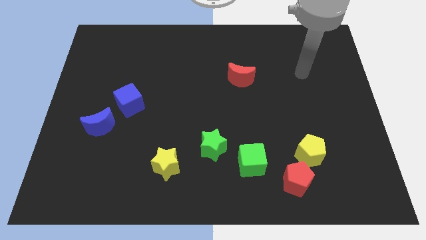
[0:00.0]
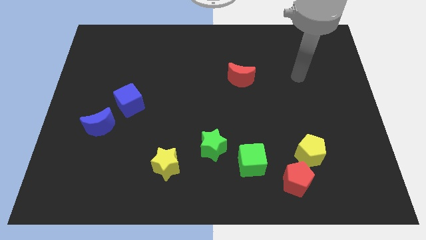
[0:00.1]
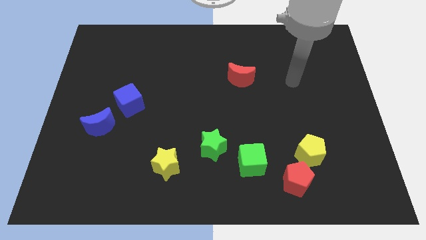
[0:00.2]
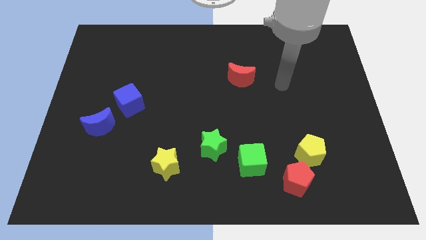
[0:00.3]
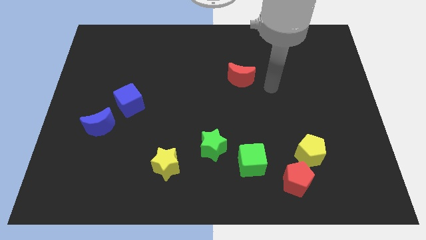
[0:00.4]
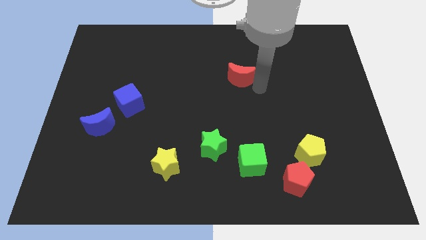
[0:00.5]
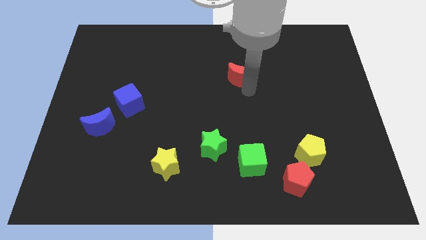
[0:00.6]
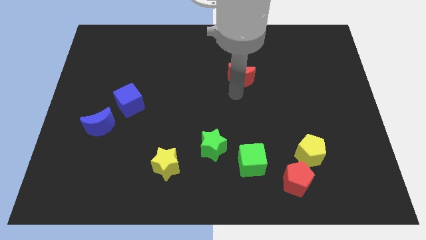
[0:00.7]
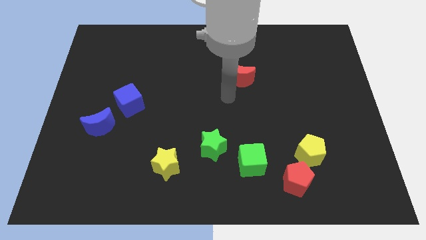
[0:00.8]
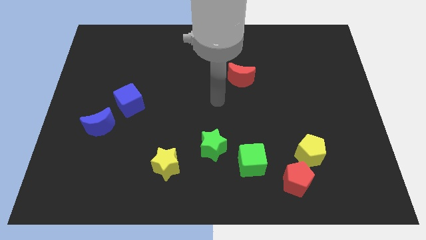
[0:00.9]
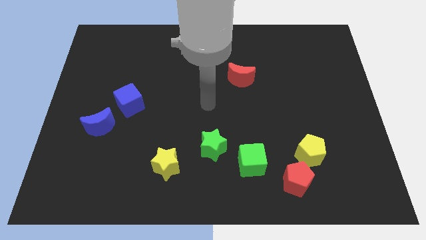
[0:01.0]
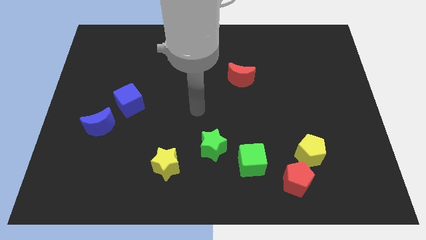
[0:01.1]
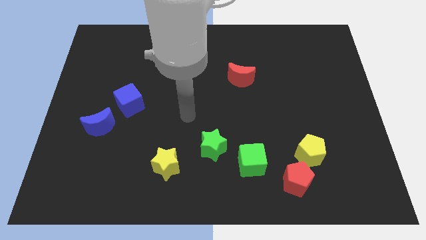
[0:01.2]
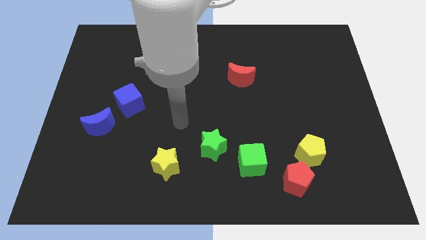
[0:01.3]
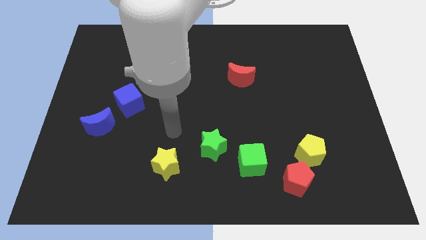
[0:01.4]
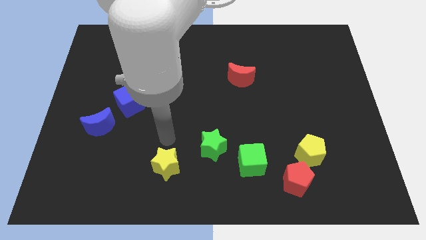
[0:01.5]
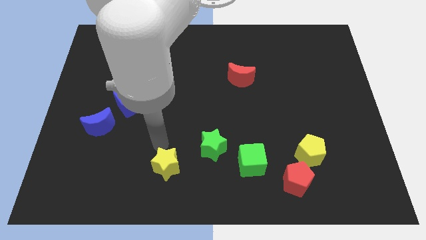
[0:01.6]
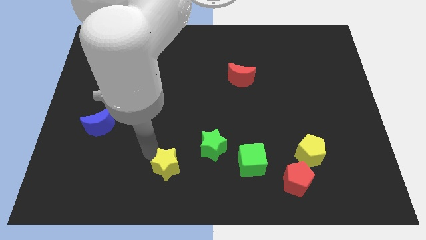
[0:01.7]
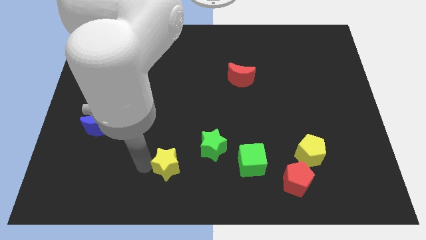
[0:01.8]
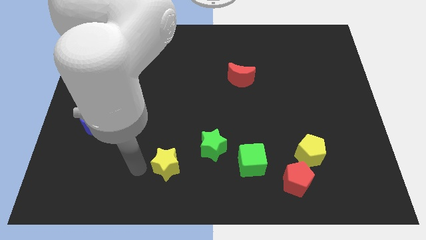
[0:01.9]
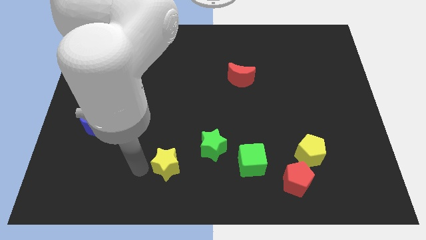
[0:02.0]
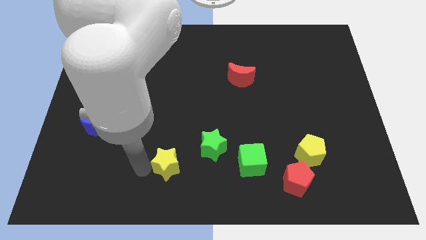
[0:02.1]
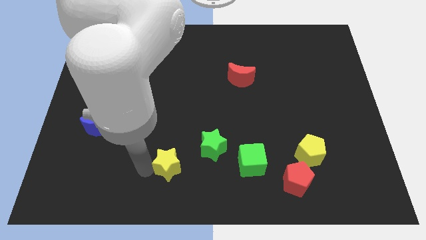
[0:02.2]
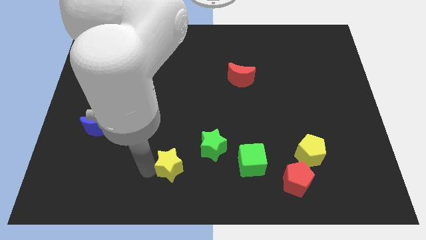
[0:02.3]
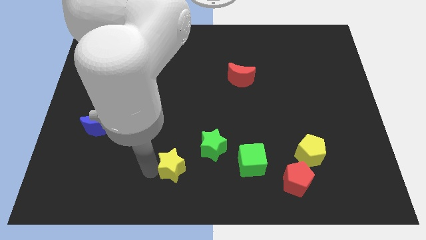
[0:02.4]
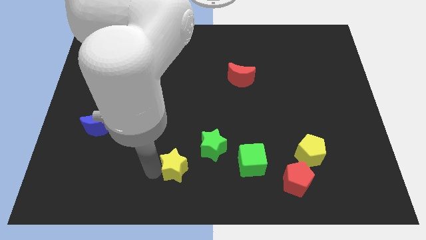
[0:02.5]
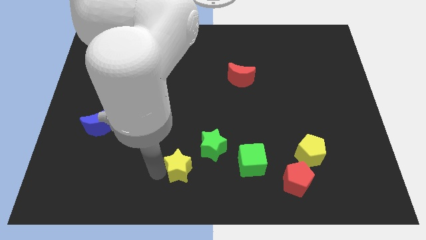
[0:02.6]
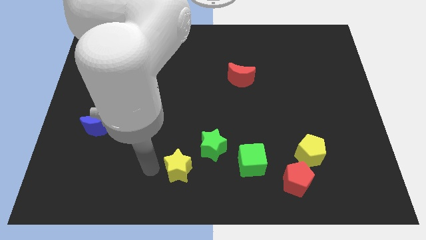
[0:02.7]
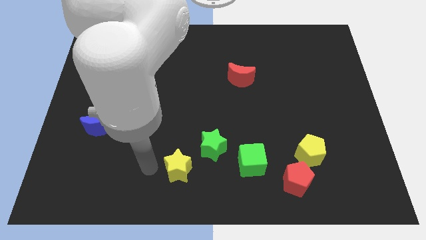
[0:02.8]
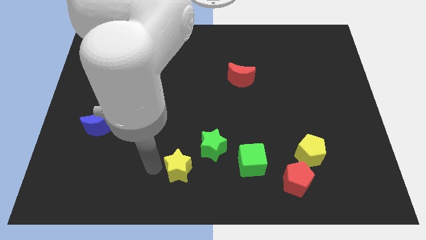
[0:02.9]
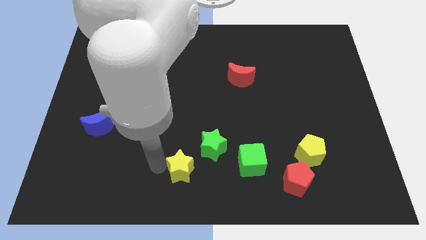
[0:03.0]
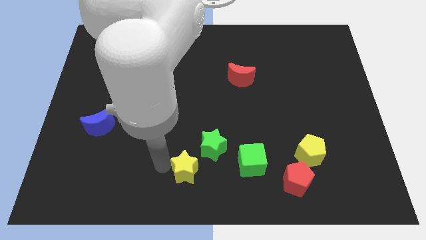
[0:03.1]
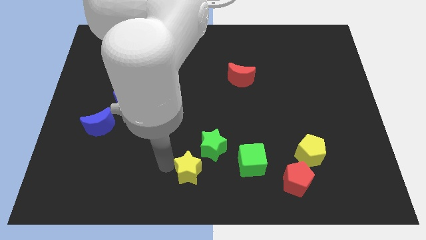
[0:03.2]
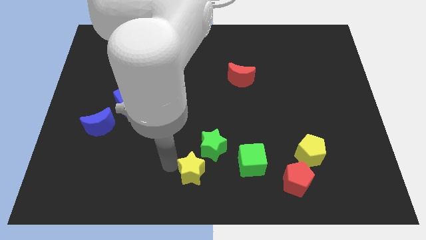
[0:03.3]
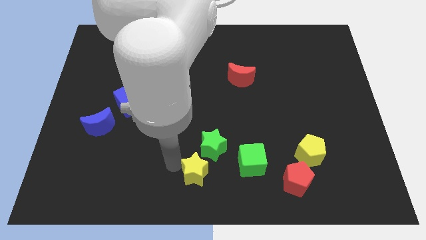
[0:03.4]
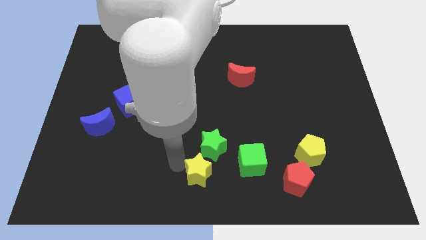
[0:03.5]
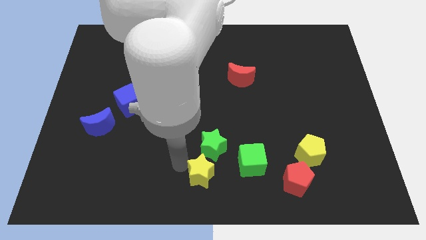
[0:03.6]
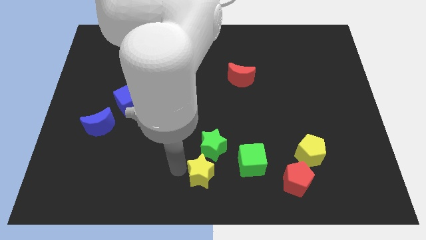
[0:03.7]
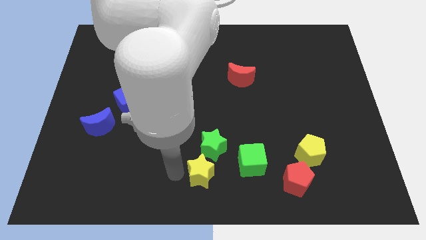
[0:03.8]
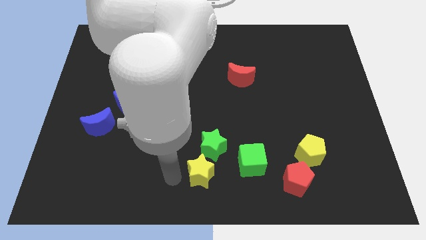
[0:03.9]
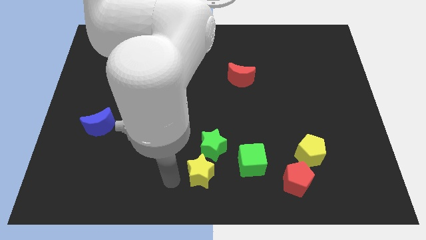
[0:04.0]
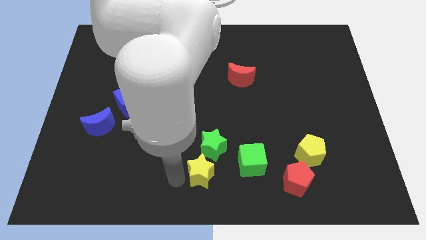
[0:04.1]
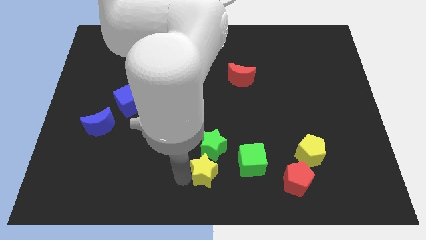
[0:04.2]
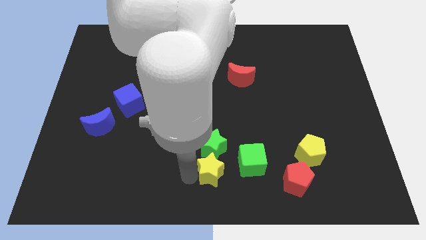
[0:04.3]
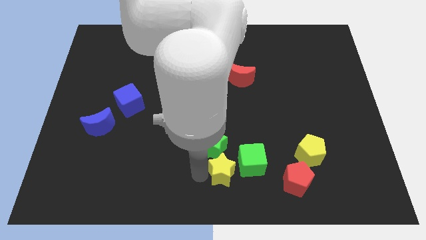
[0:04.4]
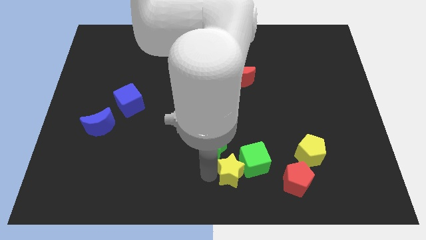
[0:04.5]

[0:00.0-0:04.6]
slide the yellow star towards the green cube

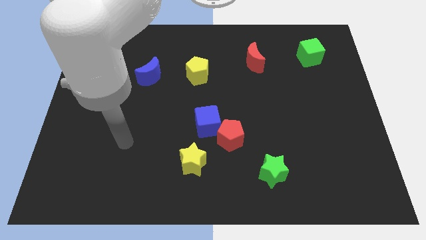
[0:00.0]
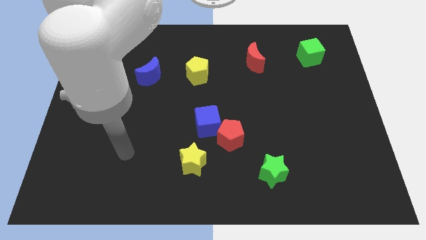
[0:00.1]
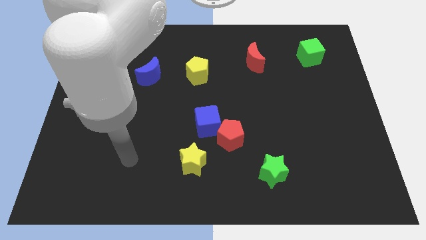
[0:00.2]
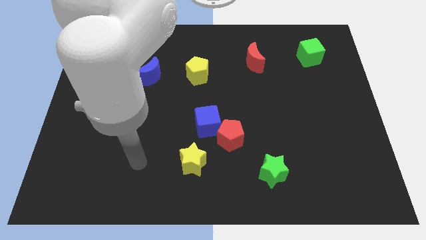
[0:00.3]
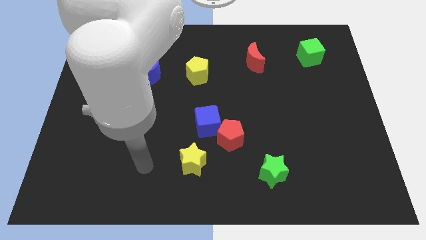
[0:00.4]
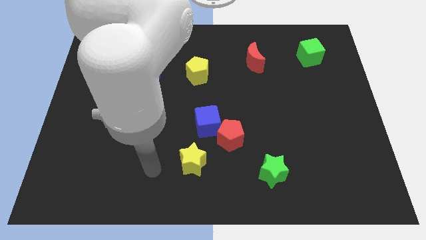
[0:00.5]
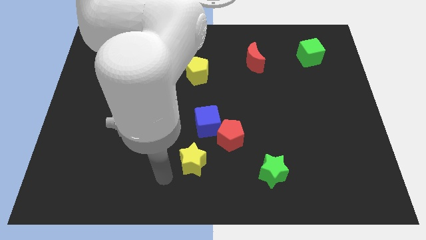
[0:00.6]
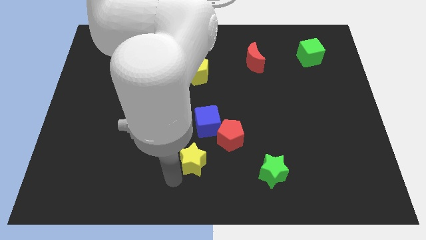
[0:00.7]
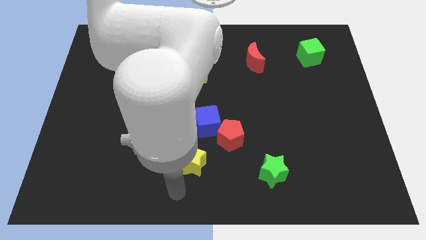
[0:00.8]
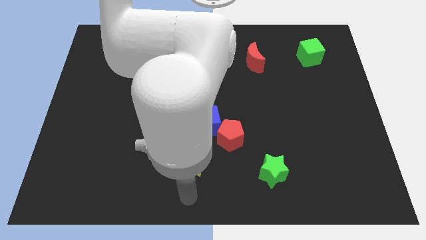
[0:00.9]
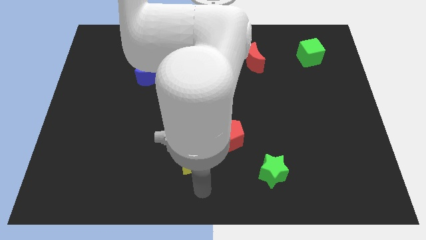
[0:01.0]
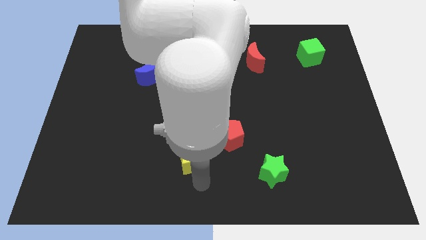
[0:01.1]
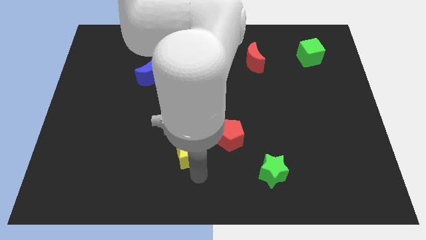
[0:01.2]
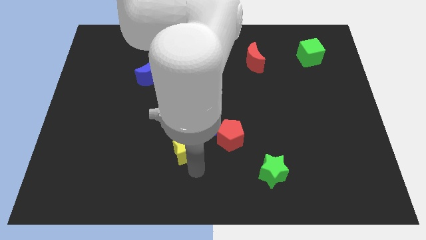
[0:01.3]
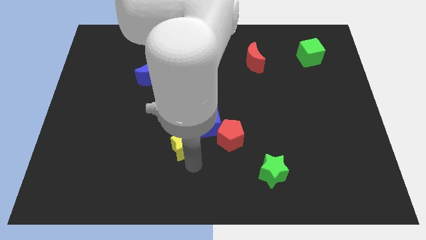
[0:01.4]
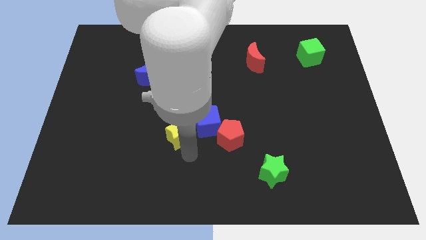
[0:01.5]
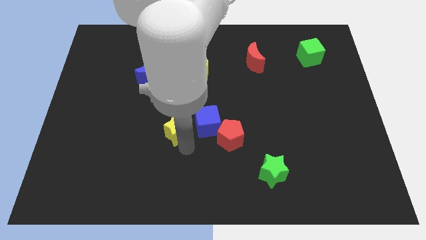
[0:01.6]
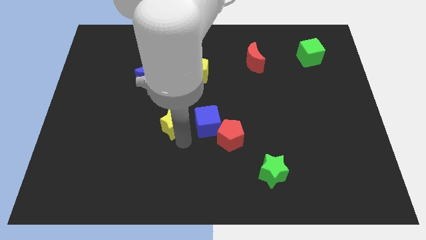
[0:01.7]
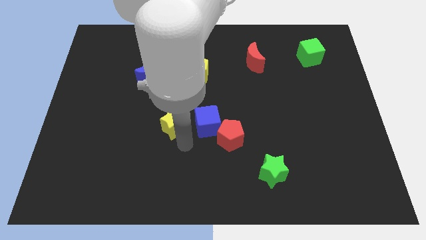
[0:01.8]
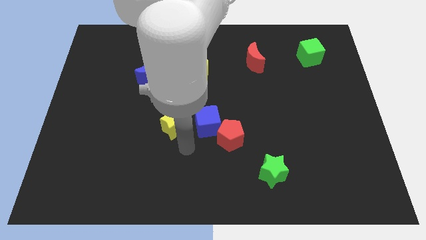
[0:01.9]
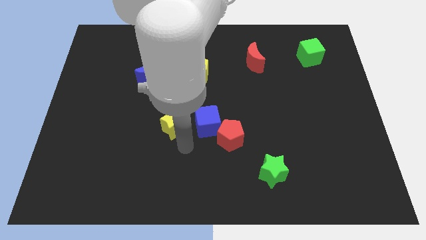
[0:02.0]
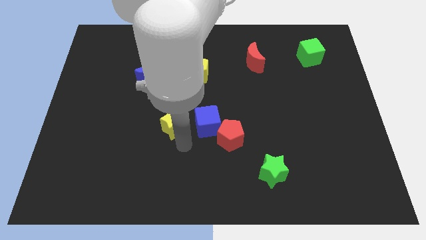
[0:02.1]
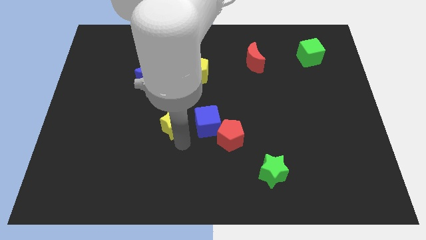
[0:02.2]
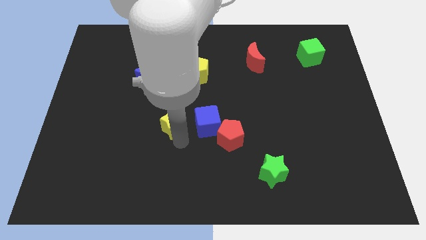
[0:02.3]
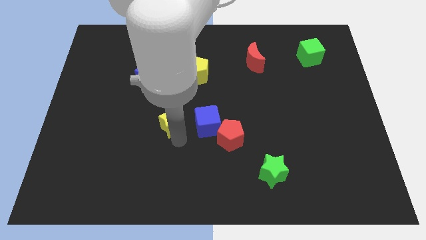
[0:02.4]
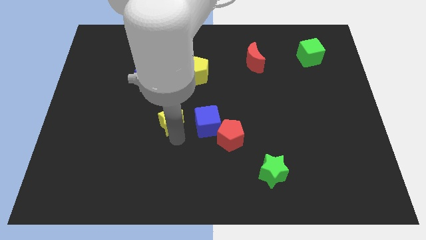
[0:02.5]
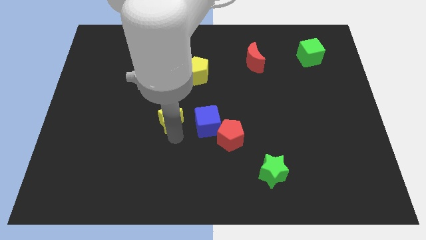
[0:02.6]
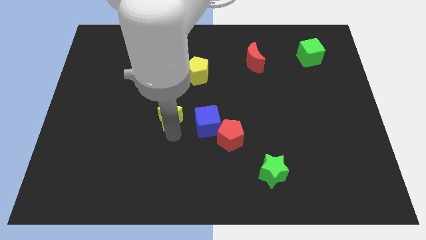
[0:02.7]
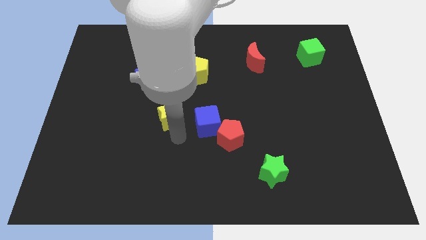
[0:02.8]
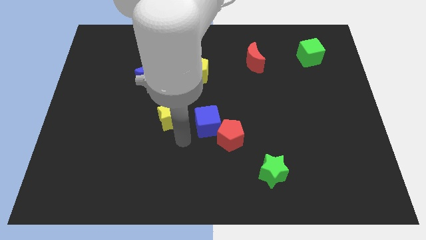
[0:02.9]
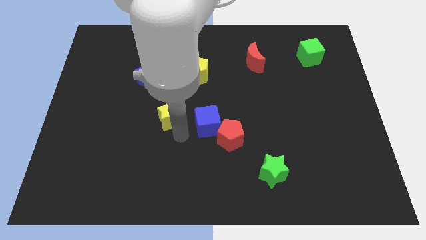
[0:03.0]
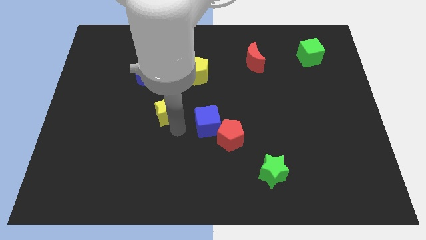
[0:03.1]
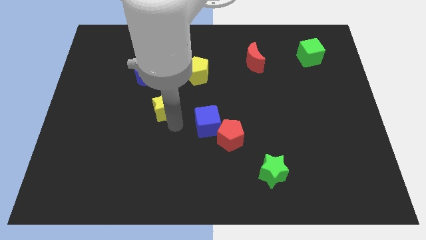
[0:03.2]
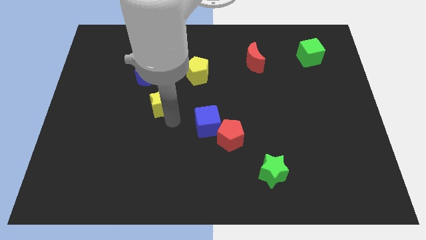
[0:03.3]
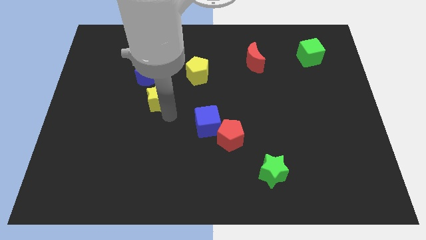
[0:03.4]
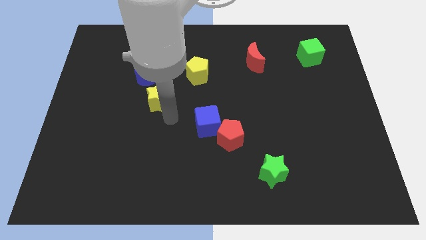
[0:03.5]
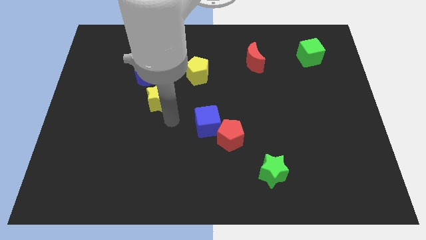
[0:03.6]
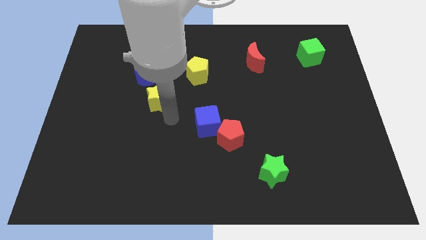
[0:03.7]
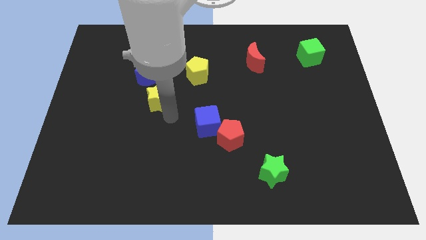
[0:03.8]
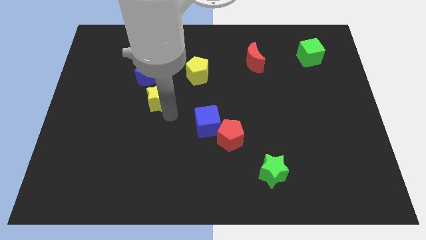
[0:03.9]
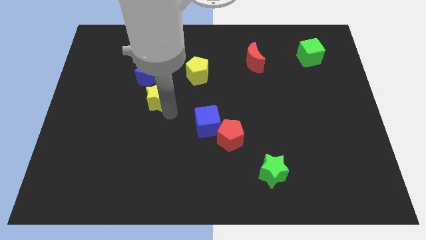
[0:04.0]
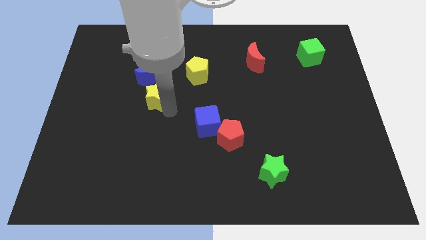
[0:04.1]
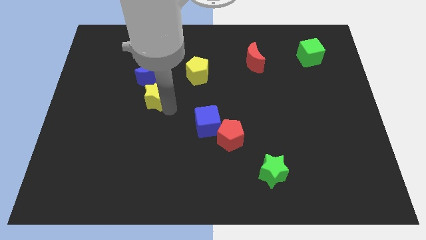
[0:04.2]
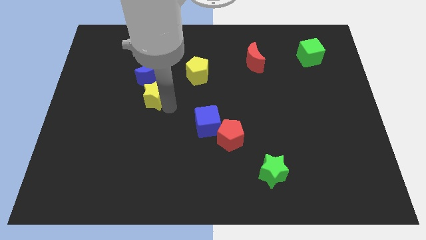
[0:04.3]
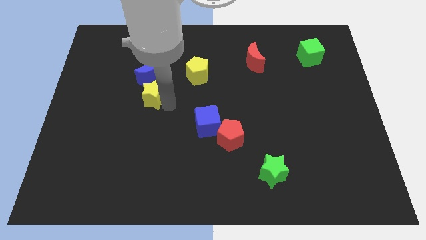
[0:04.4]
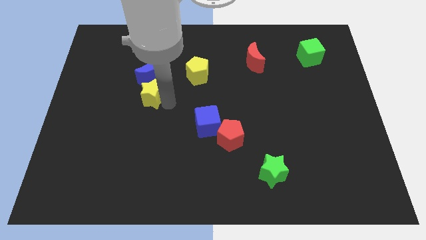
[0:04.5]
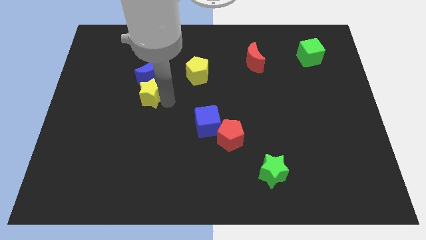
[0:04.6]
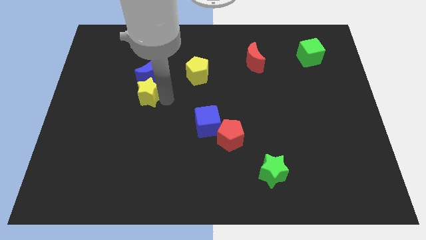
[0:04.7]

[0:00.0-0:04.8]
move the yellow star close to the blue moon
